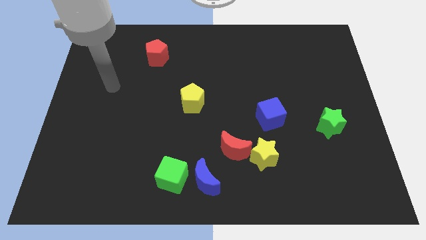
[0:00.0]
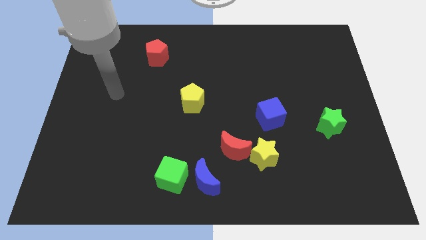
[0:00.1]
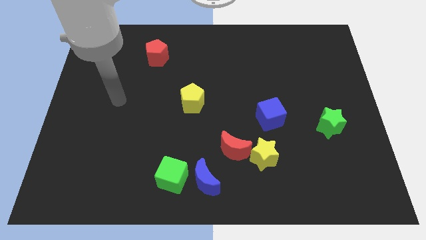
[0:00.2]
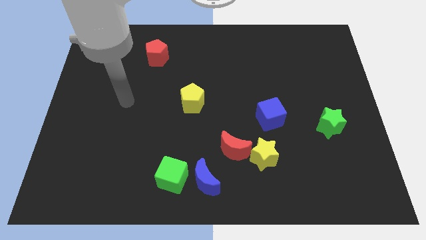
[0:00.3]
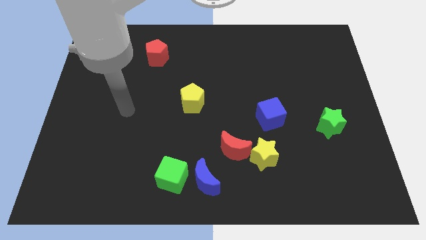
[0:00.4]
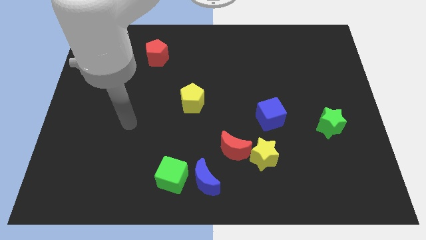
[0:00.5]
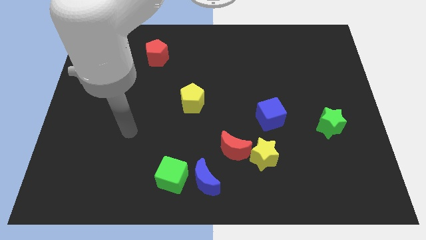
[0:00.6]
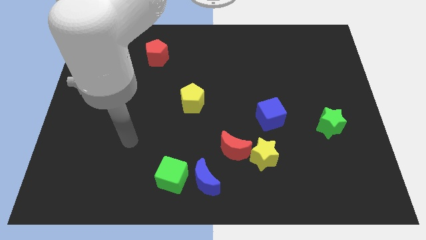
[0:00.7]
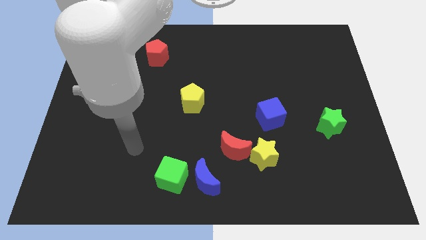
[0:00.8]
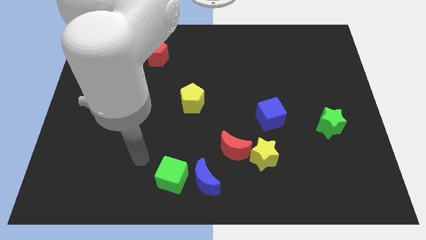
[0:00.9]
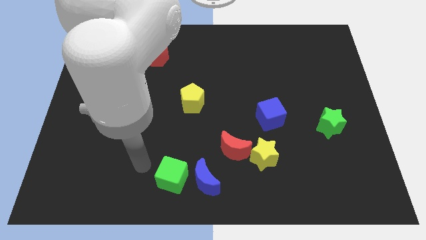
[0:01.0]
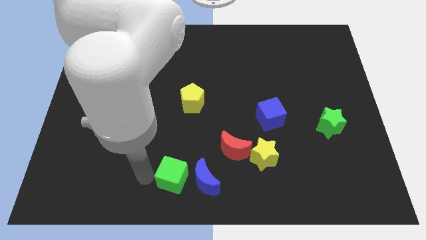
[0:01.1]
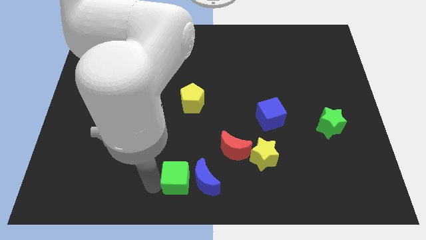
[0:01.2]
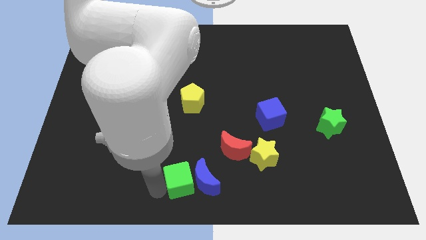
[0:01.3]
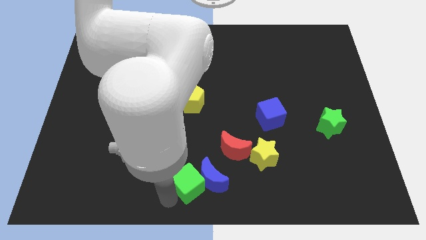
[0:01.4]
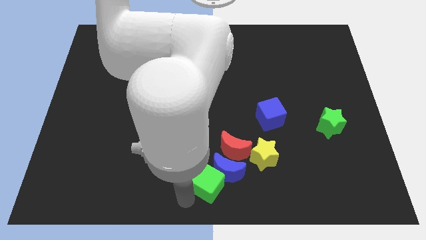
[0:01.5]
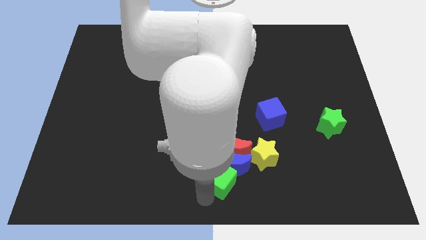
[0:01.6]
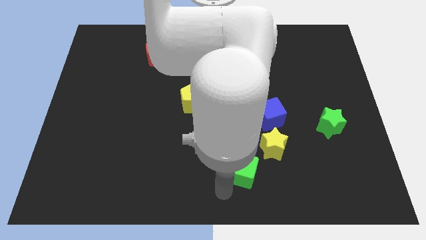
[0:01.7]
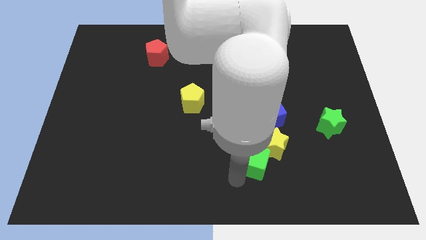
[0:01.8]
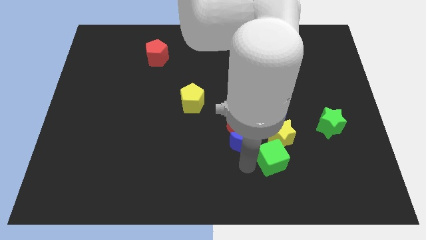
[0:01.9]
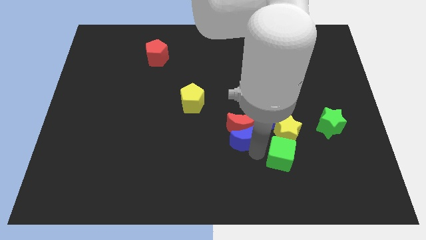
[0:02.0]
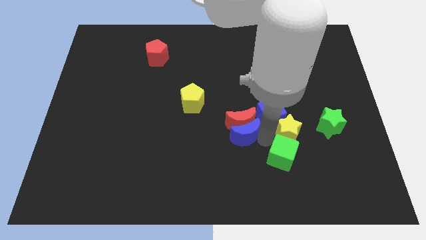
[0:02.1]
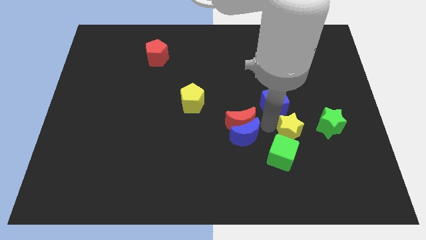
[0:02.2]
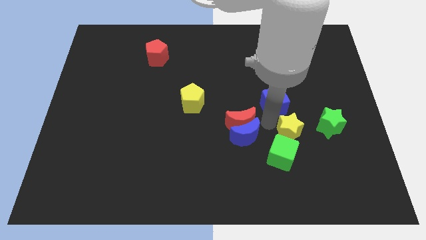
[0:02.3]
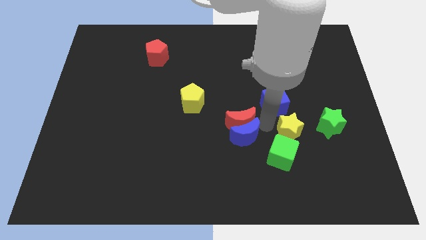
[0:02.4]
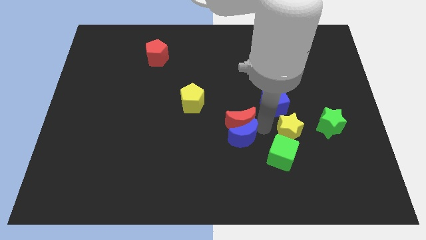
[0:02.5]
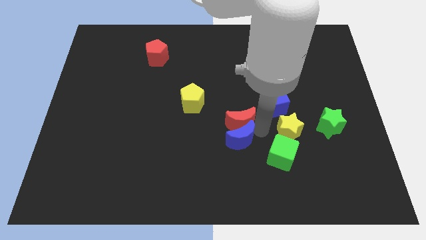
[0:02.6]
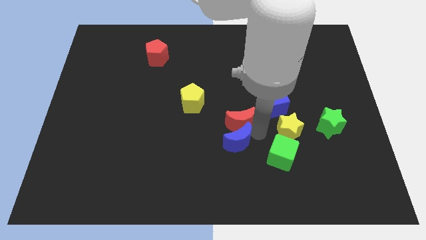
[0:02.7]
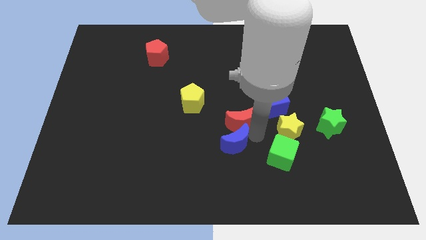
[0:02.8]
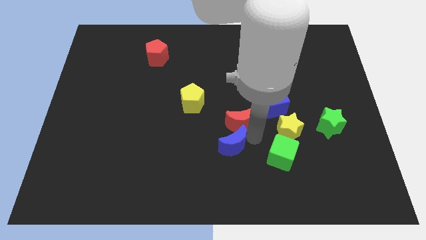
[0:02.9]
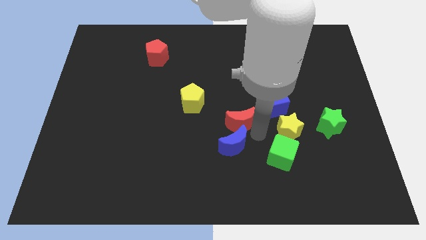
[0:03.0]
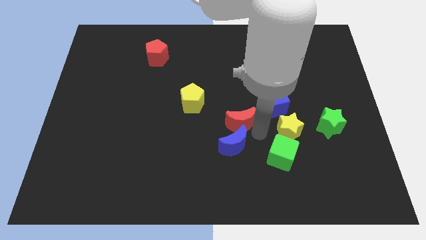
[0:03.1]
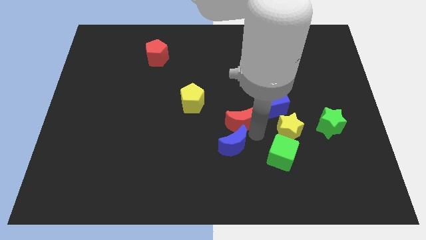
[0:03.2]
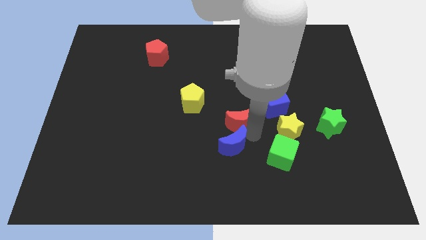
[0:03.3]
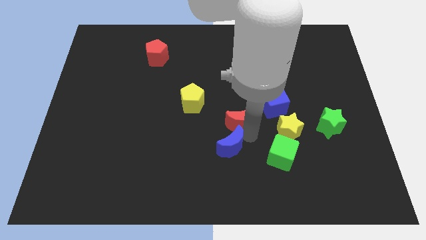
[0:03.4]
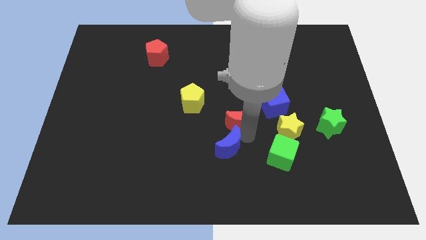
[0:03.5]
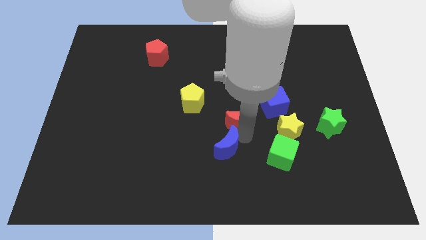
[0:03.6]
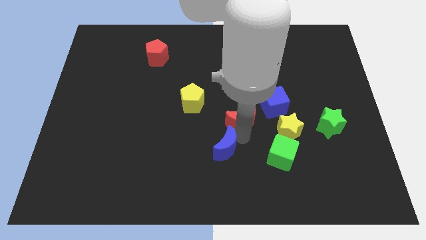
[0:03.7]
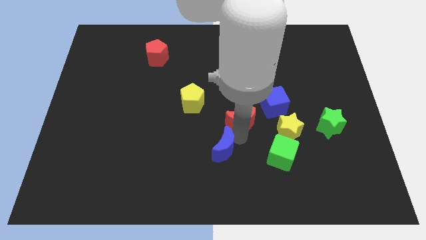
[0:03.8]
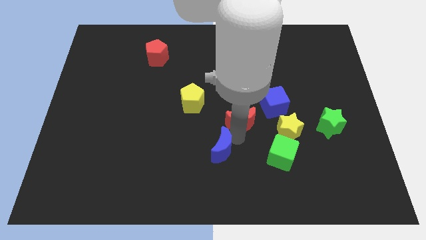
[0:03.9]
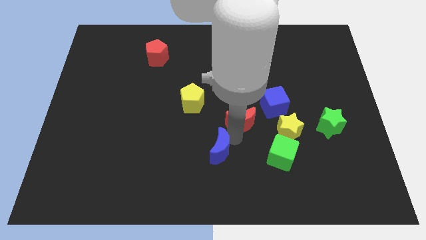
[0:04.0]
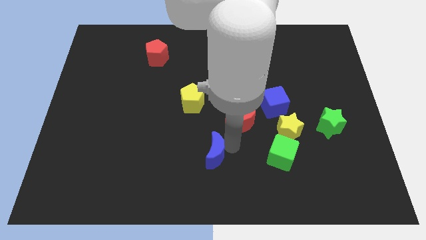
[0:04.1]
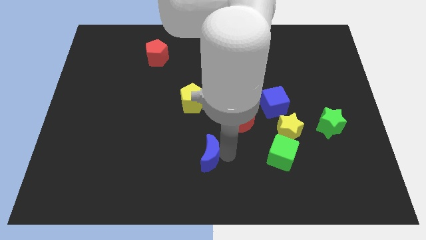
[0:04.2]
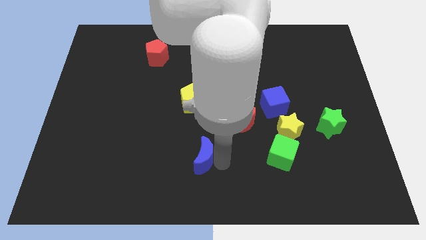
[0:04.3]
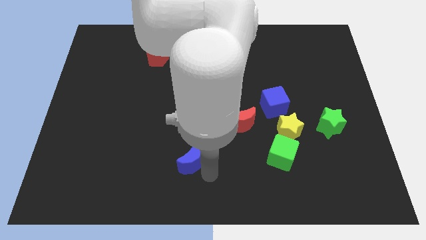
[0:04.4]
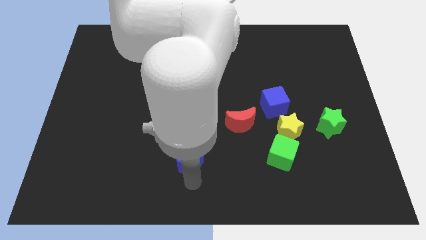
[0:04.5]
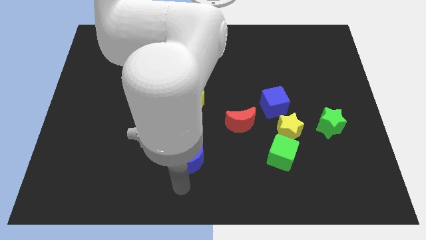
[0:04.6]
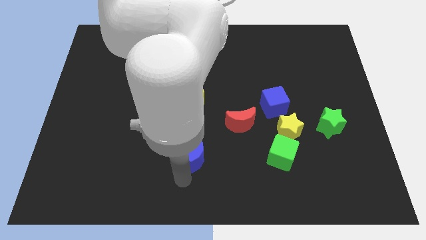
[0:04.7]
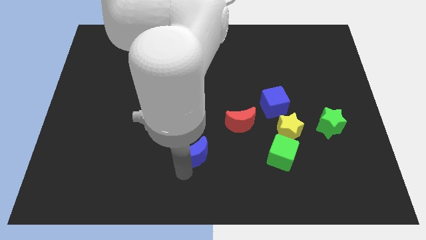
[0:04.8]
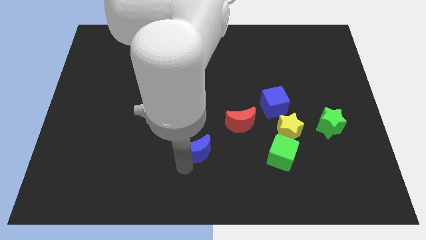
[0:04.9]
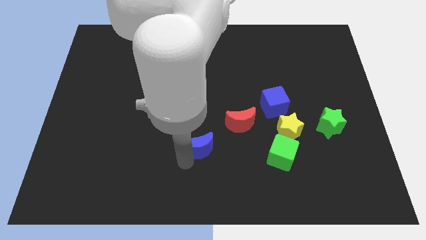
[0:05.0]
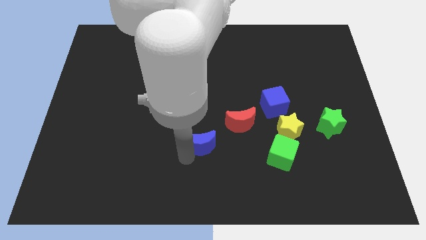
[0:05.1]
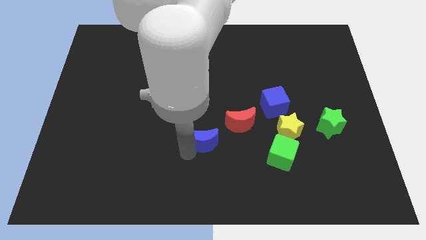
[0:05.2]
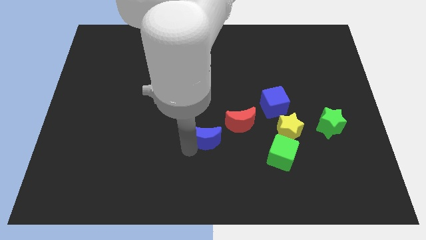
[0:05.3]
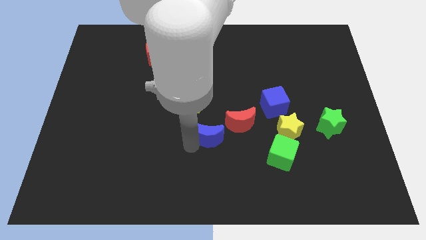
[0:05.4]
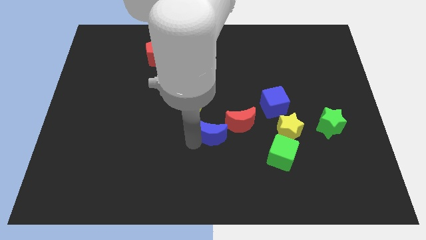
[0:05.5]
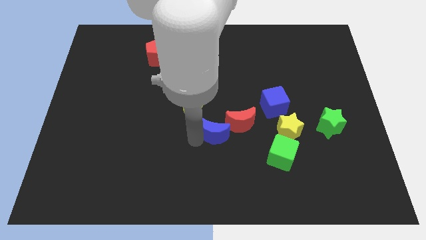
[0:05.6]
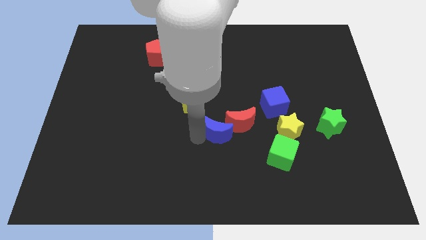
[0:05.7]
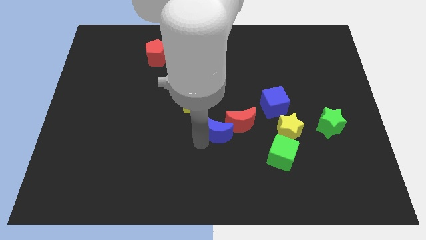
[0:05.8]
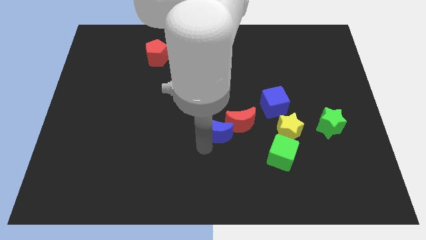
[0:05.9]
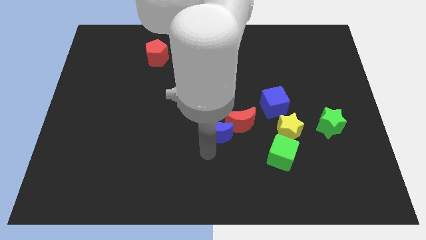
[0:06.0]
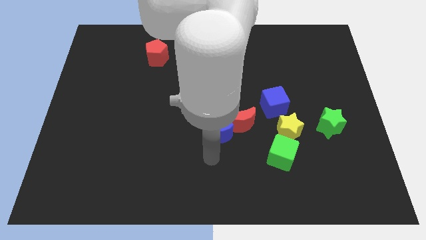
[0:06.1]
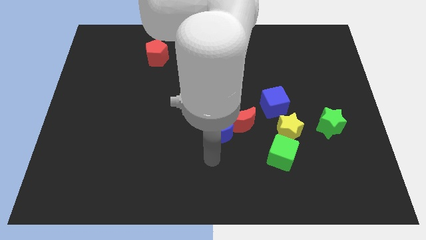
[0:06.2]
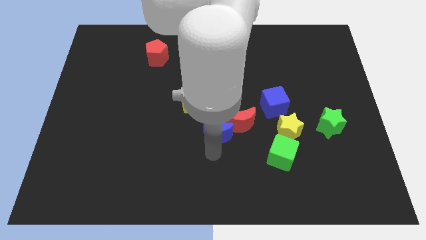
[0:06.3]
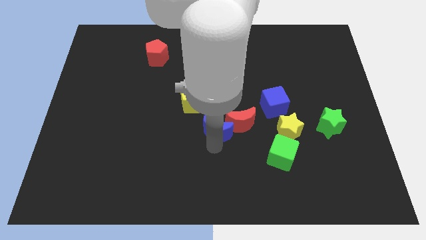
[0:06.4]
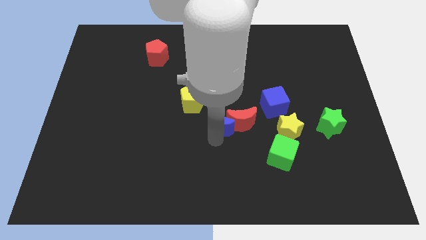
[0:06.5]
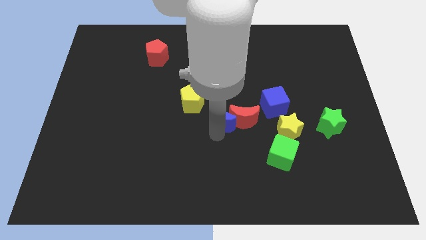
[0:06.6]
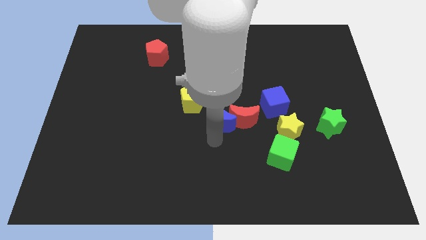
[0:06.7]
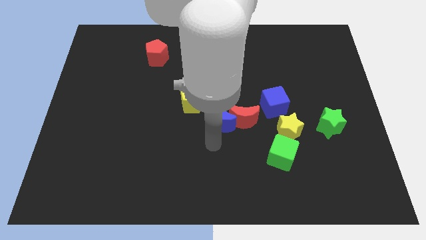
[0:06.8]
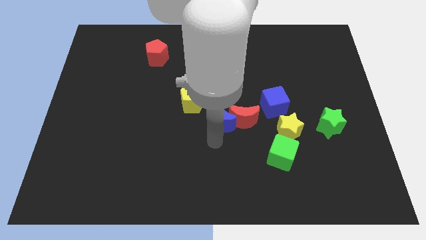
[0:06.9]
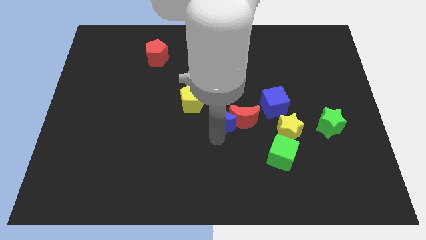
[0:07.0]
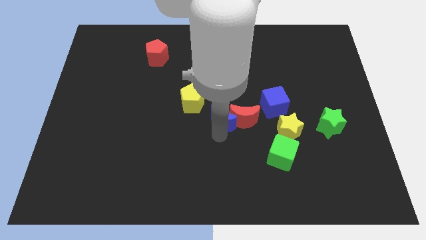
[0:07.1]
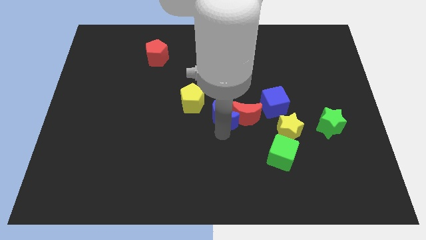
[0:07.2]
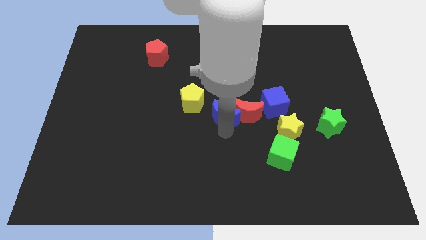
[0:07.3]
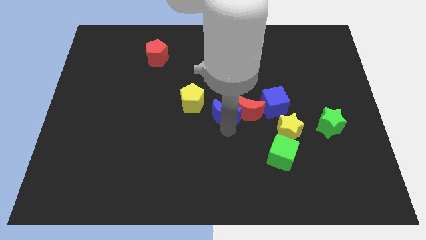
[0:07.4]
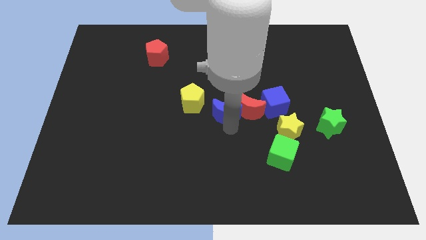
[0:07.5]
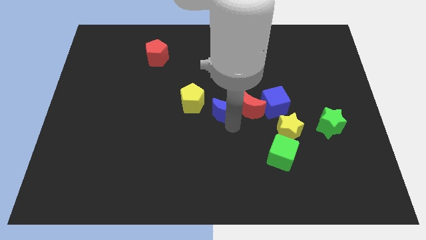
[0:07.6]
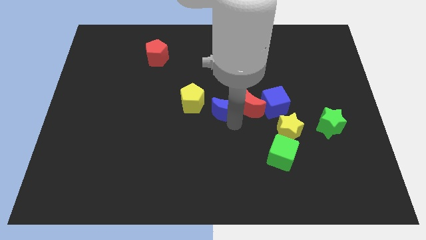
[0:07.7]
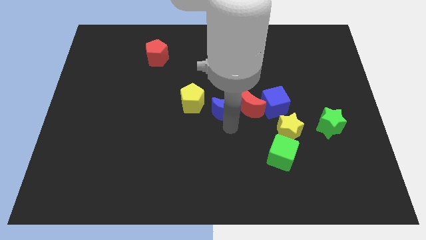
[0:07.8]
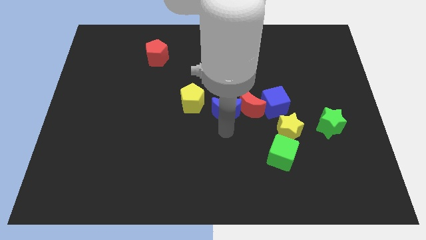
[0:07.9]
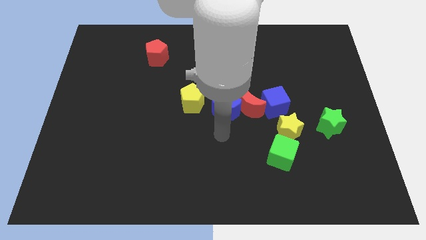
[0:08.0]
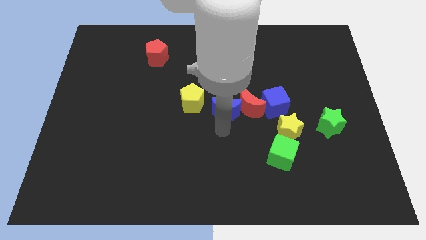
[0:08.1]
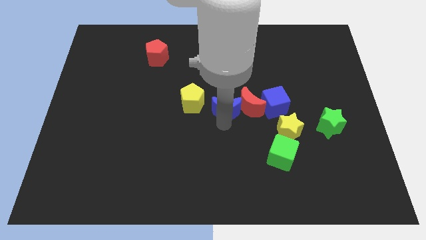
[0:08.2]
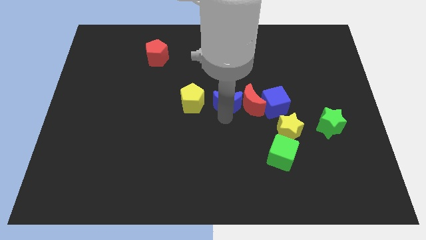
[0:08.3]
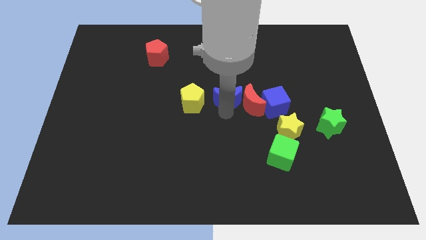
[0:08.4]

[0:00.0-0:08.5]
push the blue moon upwards
